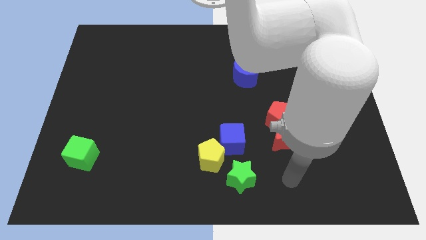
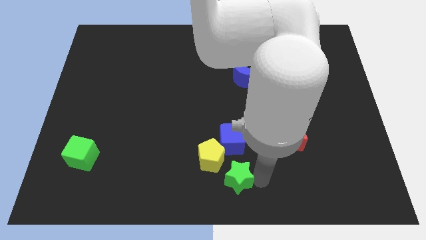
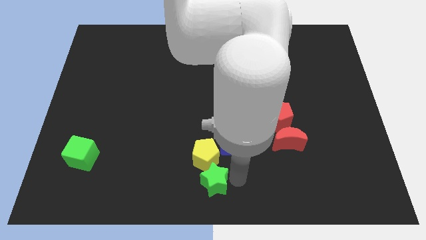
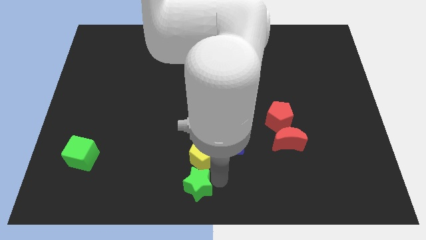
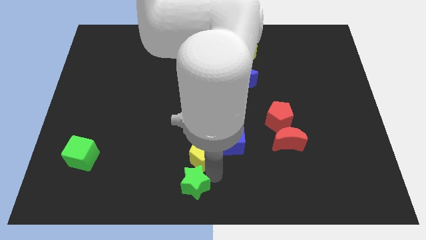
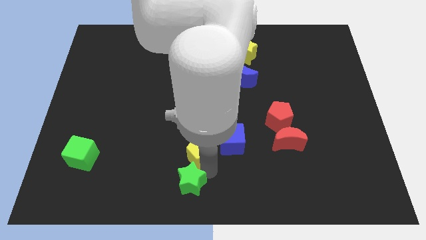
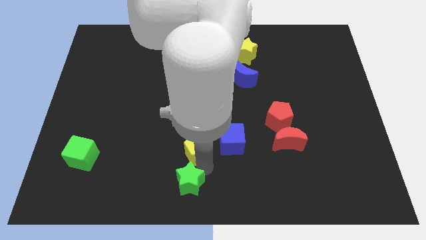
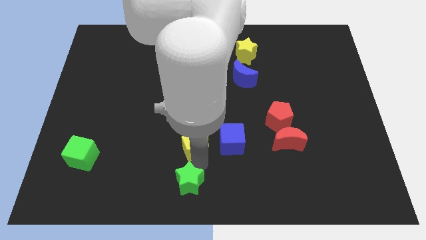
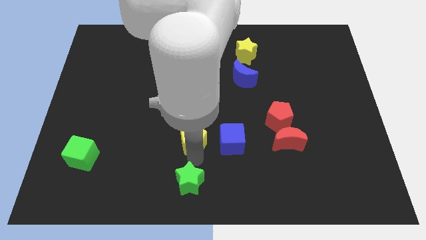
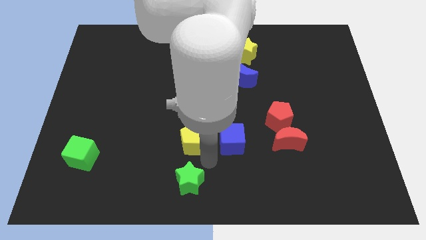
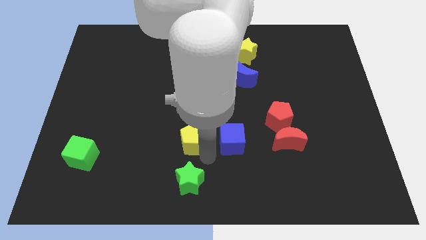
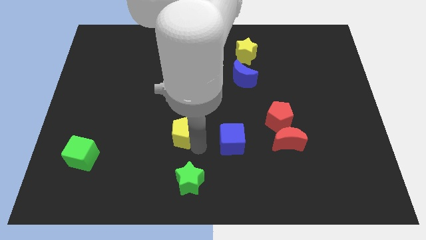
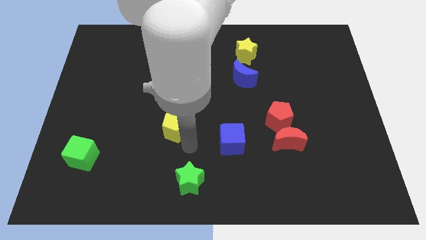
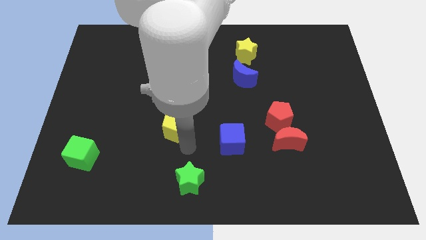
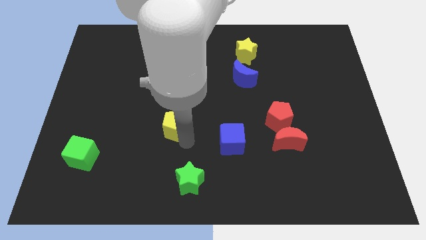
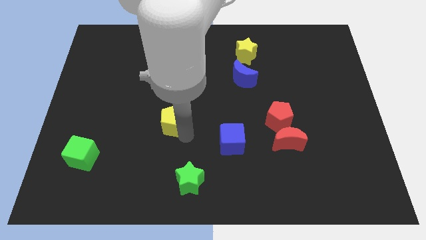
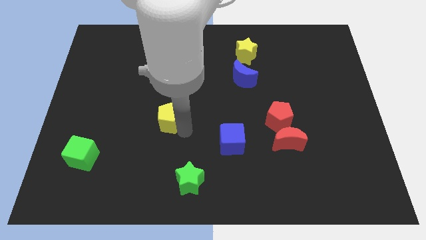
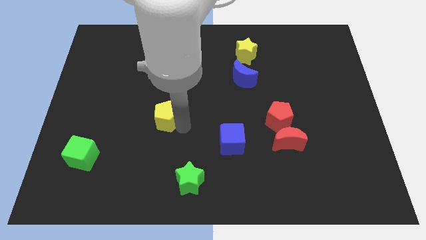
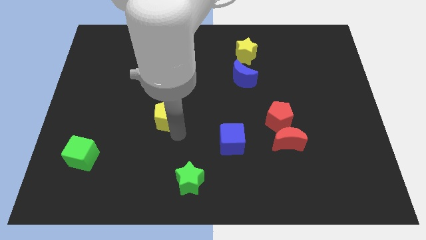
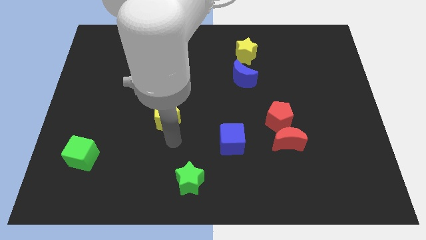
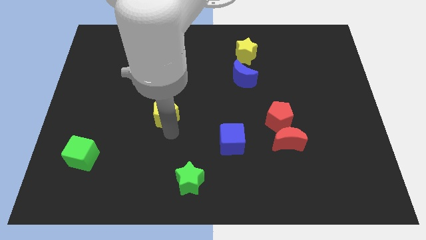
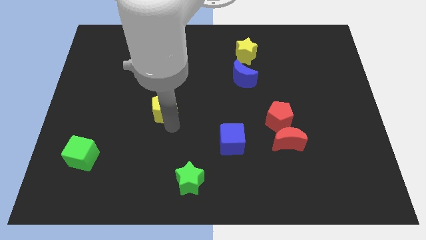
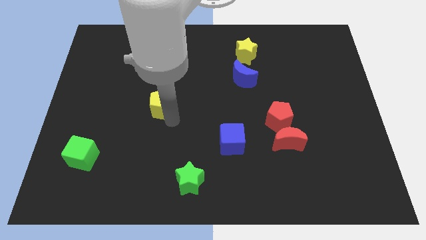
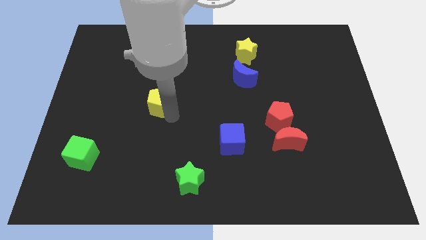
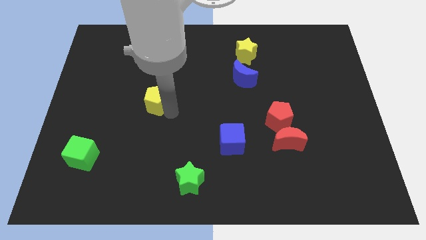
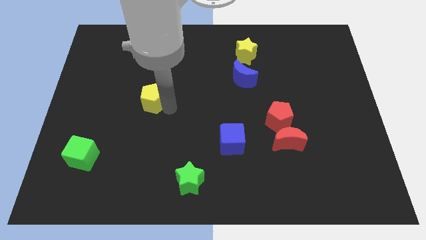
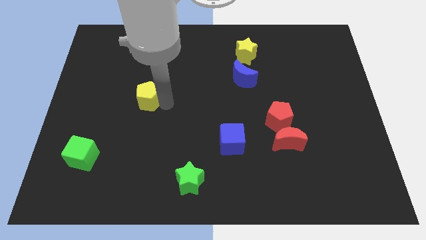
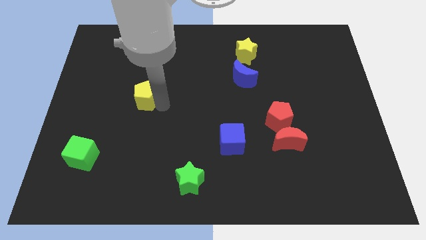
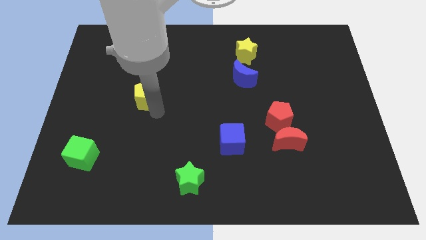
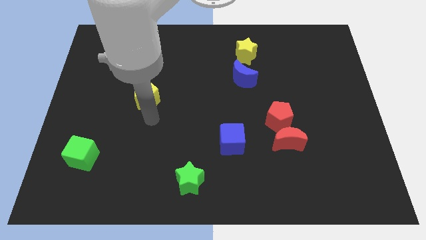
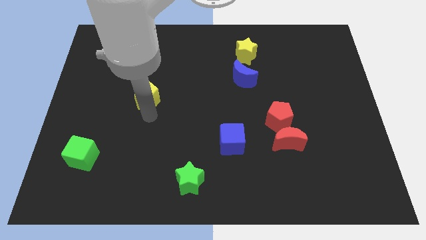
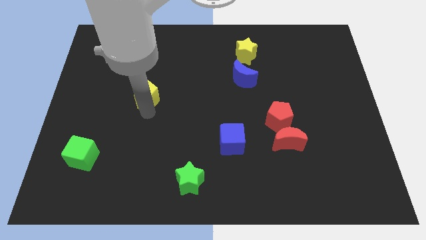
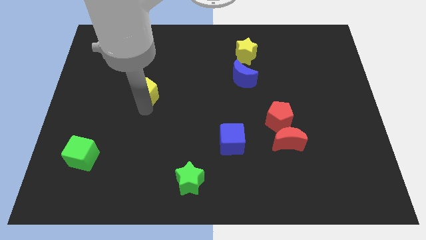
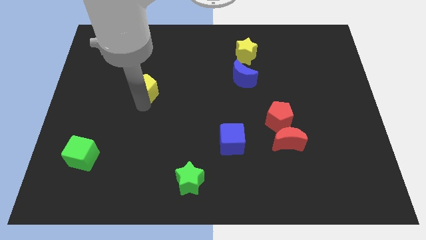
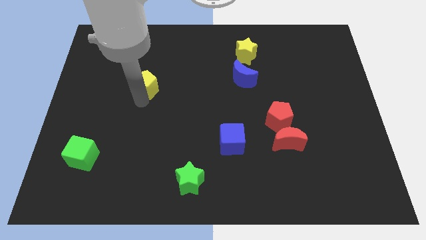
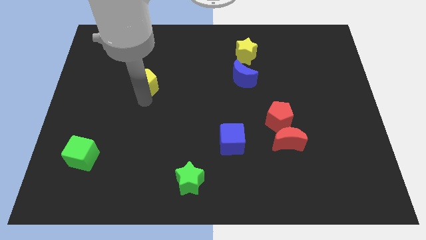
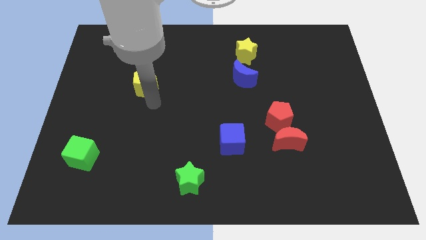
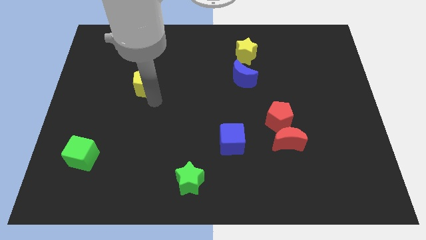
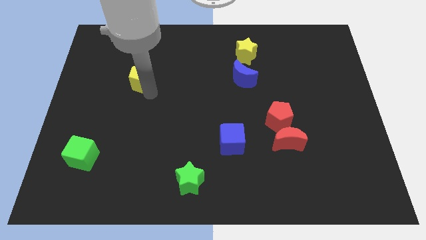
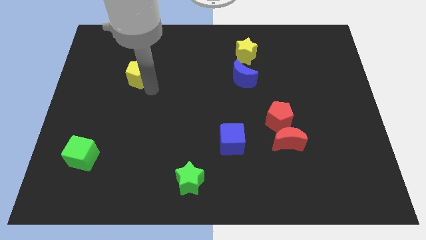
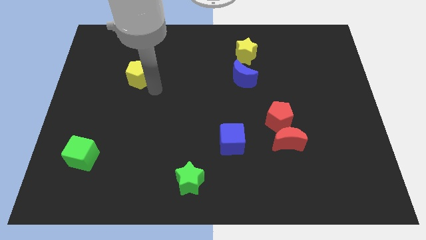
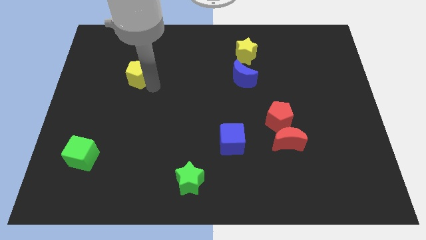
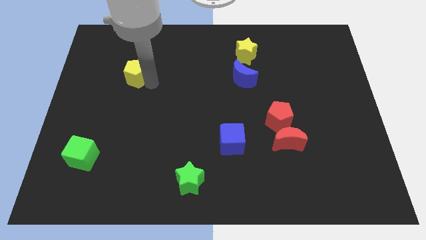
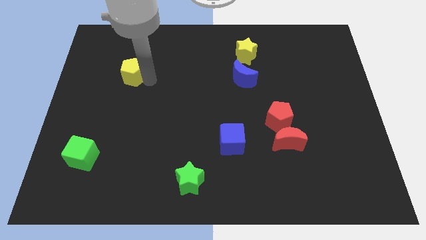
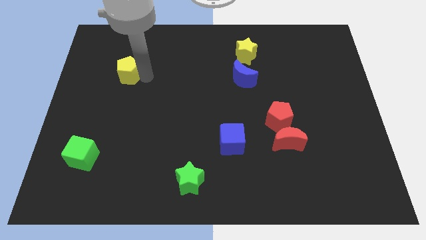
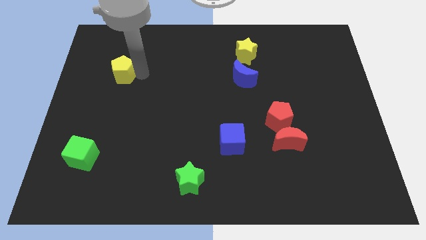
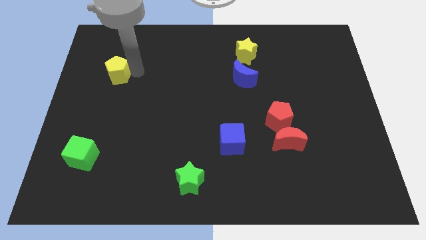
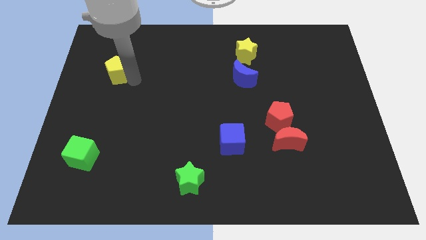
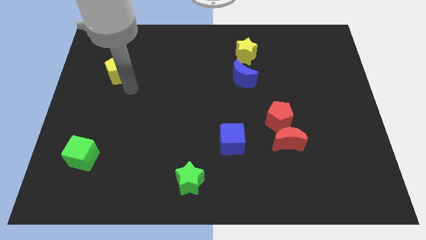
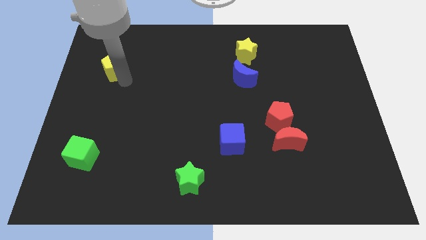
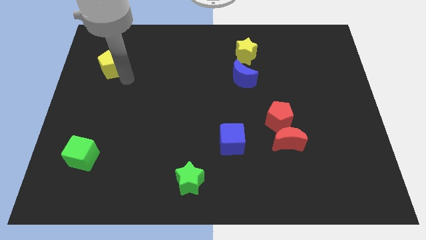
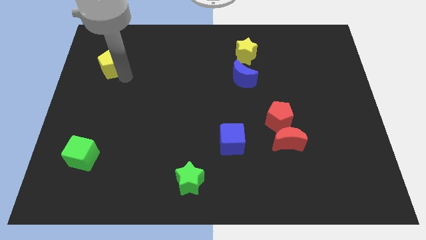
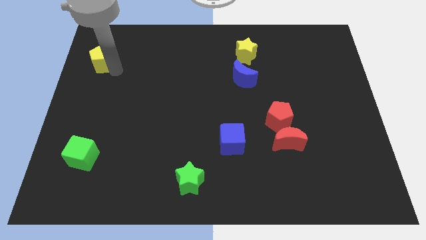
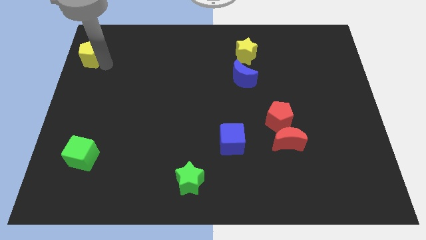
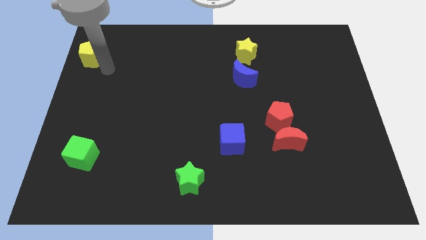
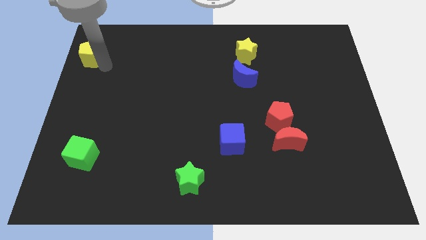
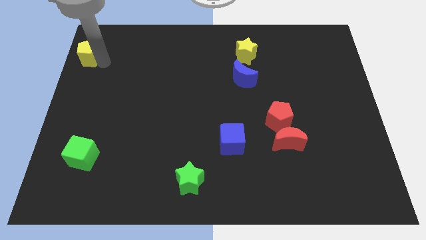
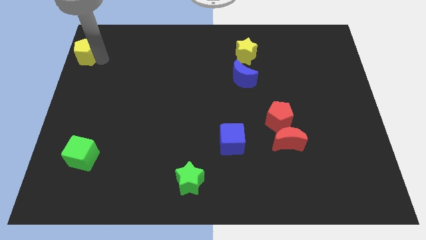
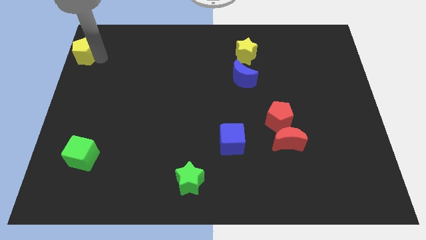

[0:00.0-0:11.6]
move the yellow pentagon to the top left of the board

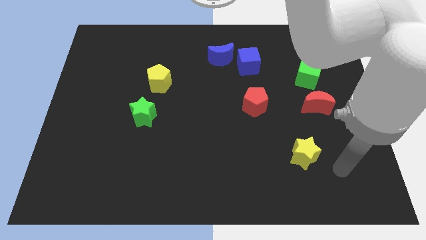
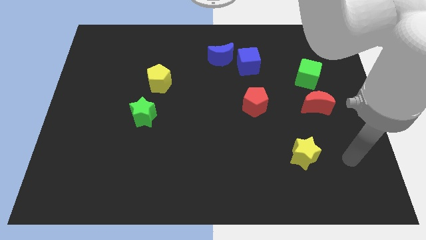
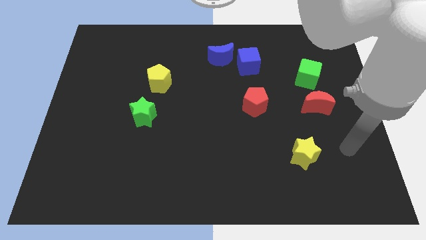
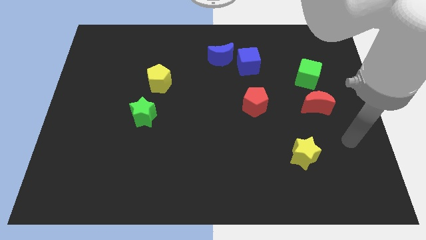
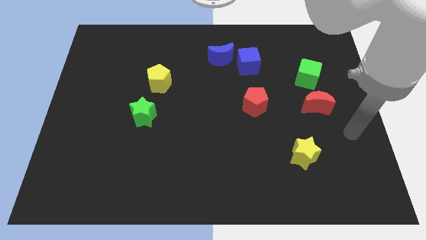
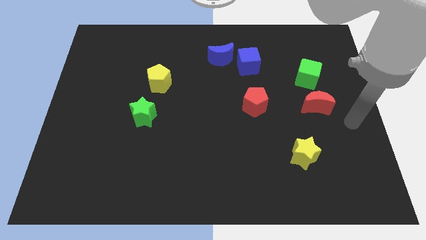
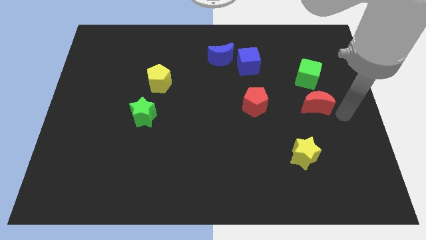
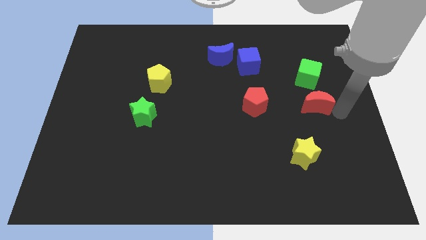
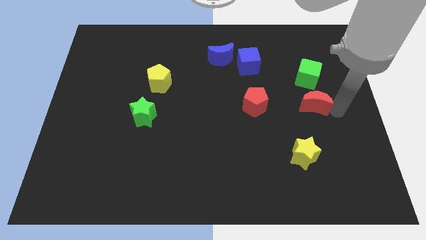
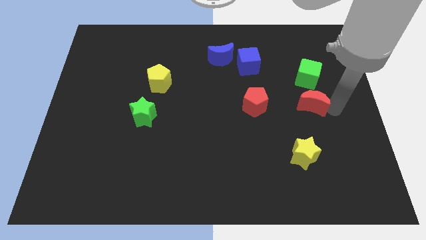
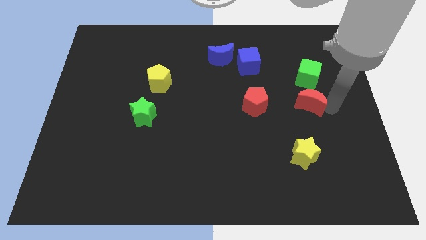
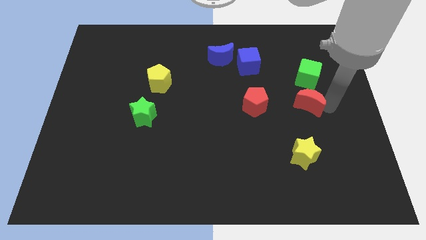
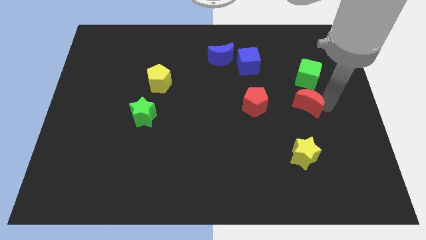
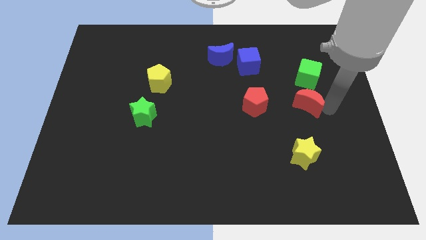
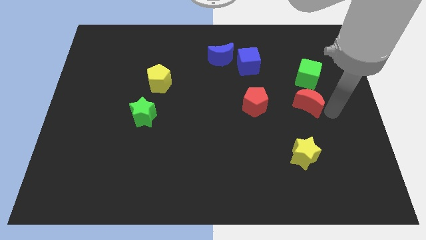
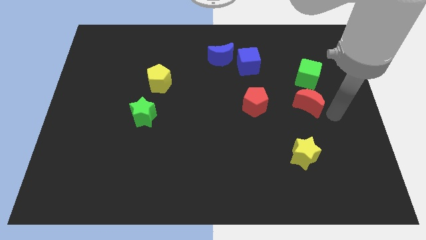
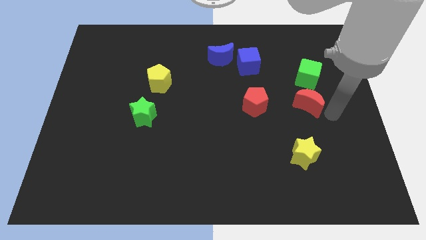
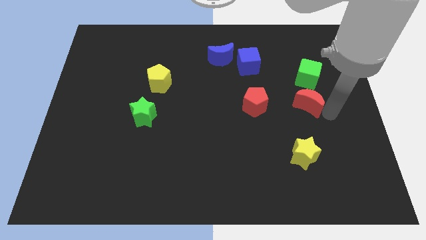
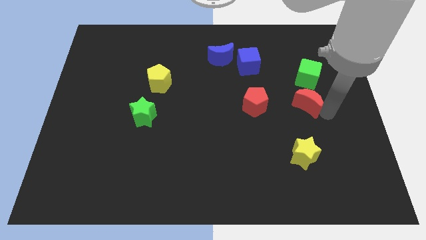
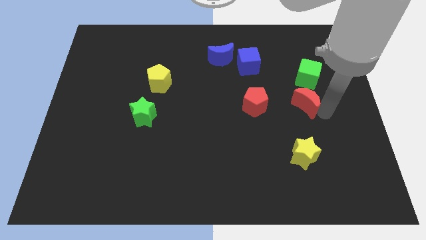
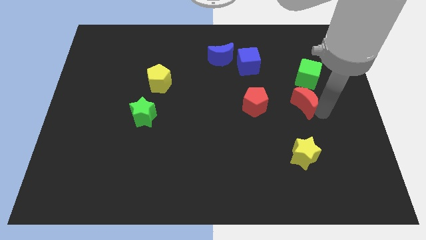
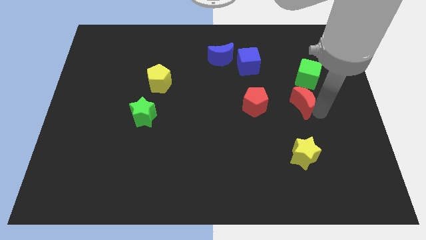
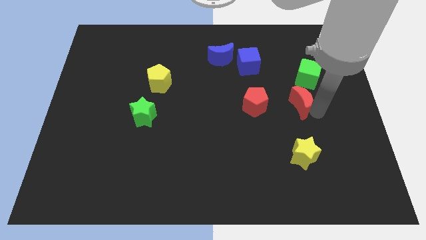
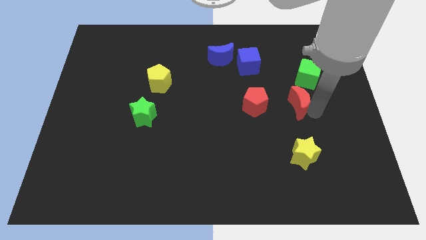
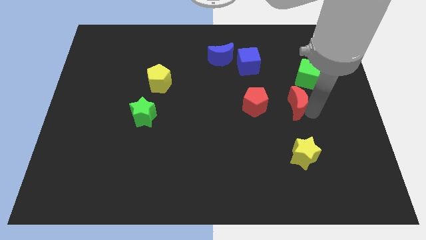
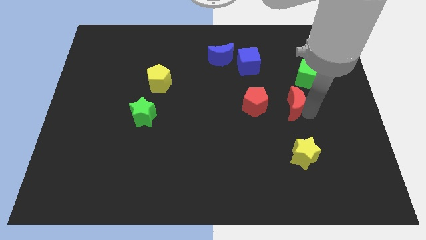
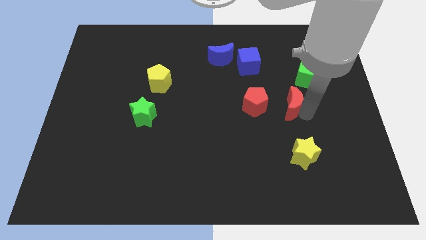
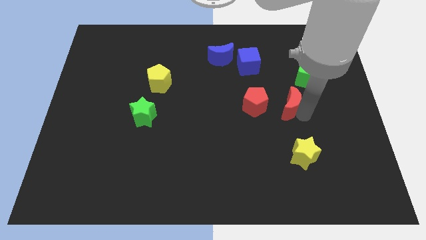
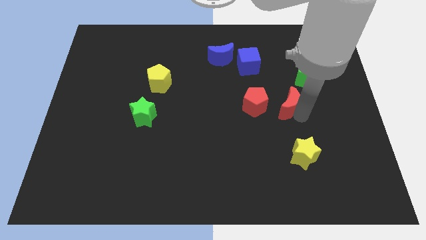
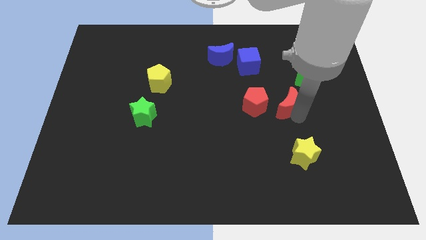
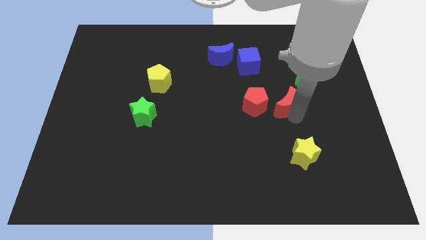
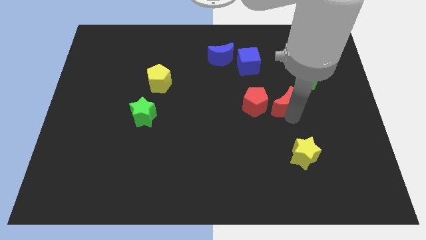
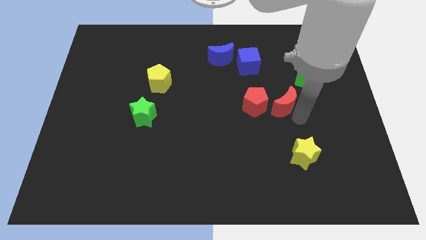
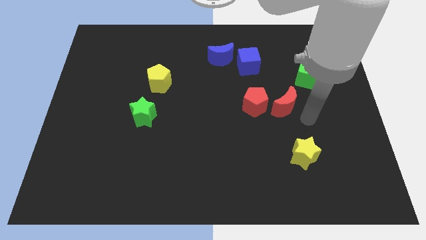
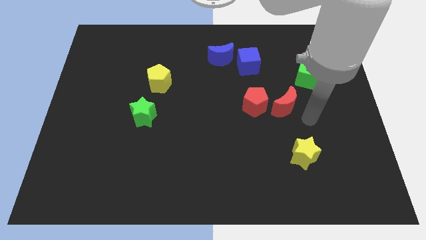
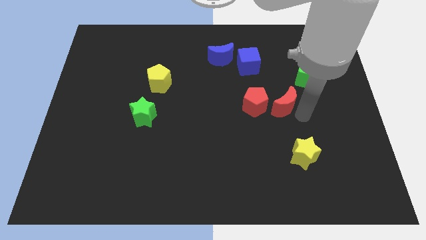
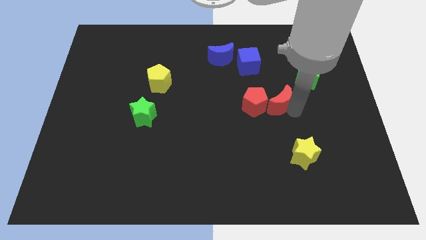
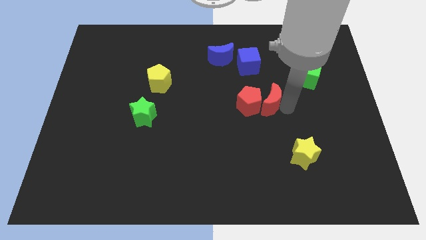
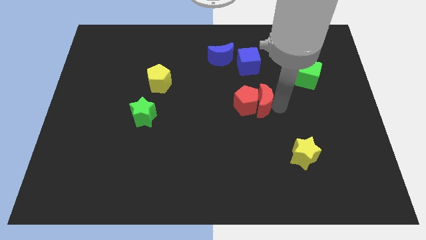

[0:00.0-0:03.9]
slide the red moon to the middle
